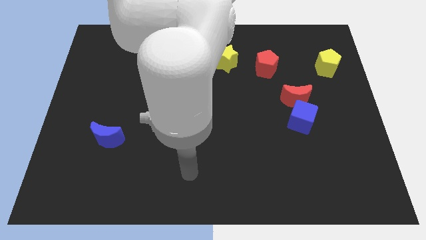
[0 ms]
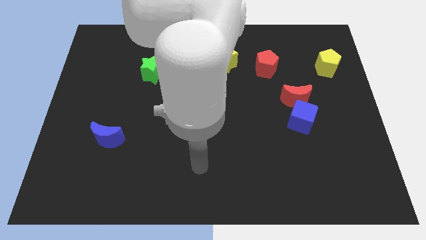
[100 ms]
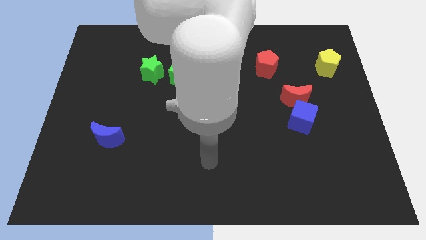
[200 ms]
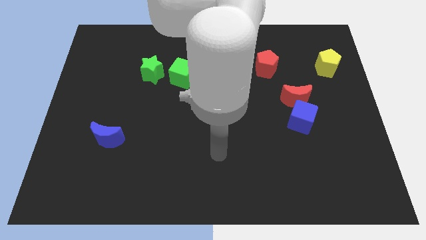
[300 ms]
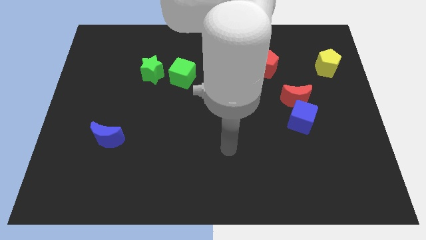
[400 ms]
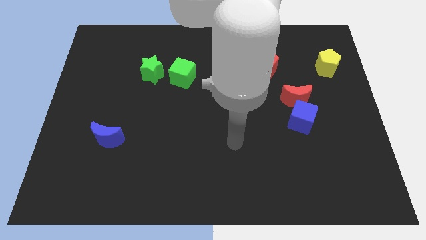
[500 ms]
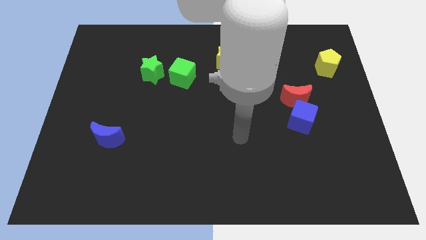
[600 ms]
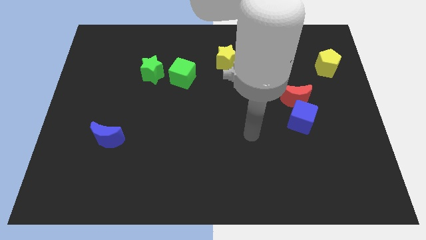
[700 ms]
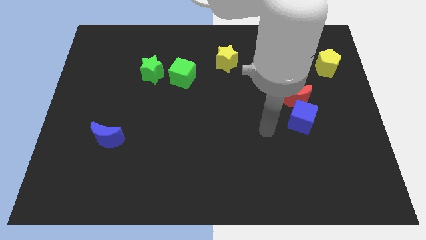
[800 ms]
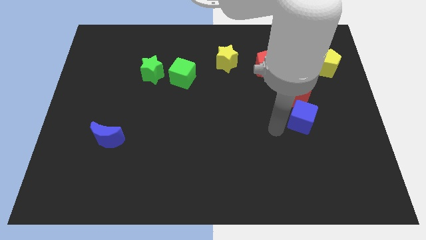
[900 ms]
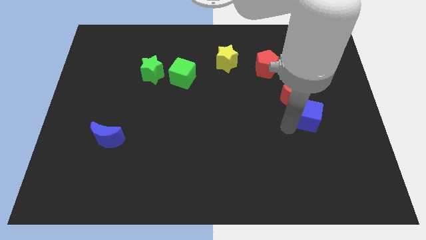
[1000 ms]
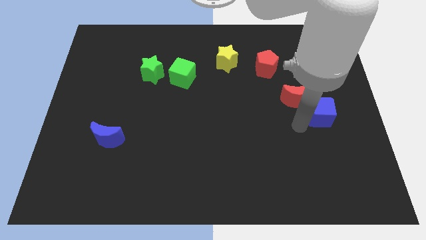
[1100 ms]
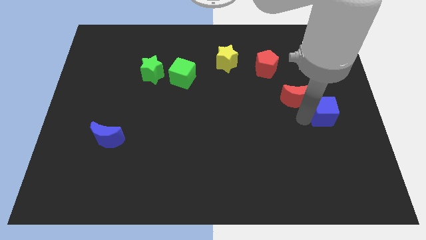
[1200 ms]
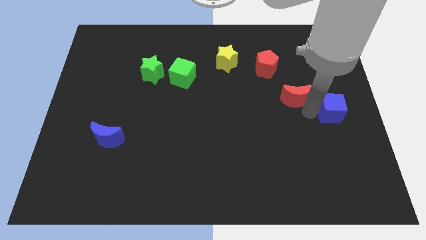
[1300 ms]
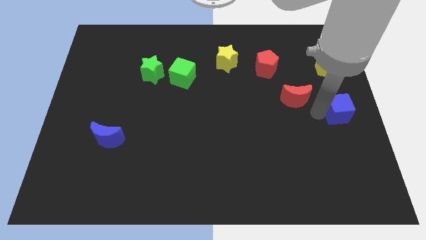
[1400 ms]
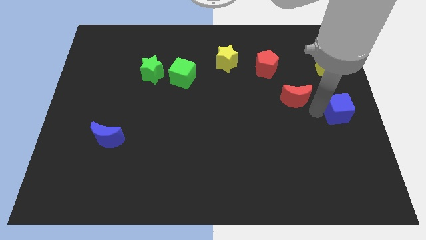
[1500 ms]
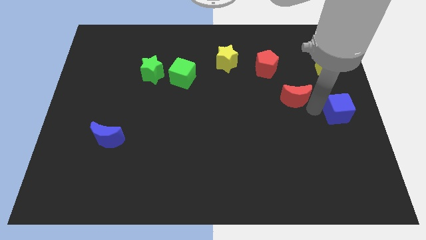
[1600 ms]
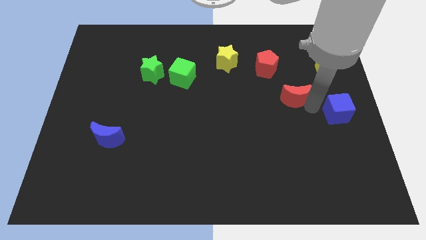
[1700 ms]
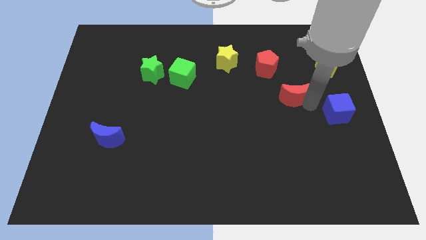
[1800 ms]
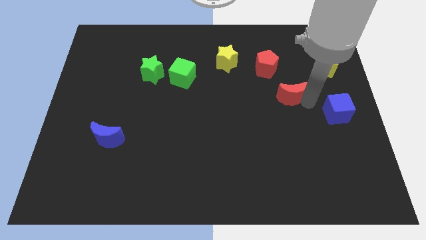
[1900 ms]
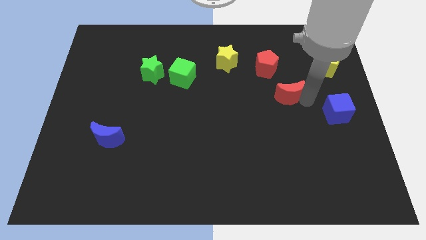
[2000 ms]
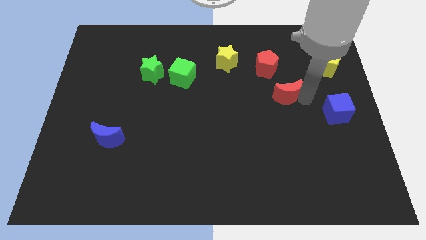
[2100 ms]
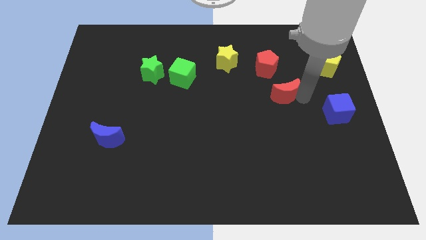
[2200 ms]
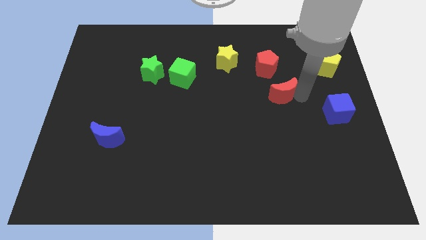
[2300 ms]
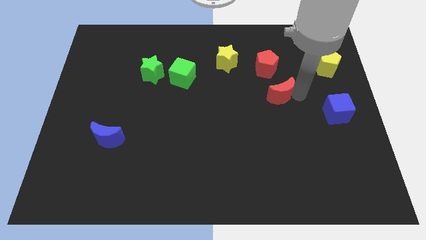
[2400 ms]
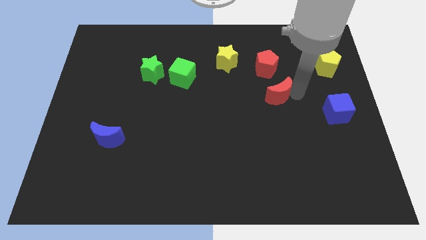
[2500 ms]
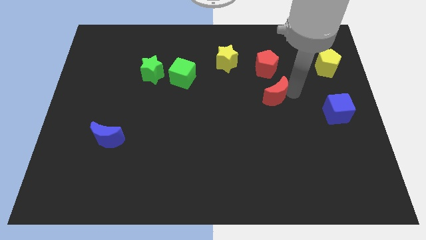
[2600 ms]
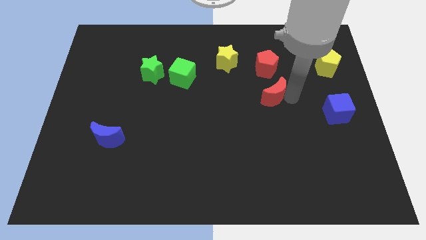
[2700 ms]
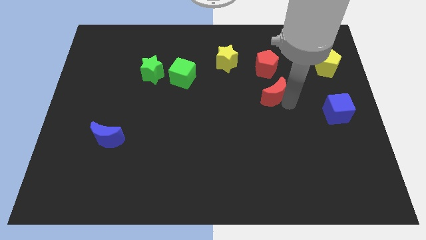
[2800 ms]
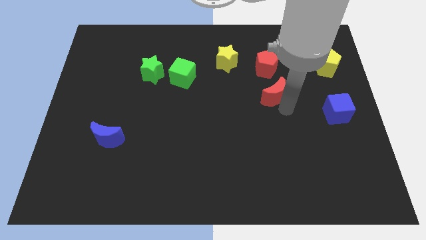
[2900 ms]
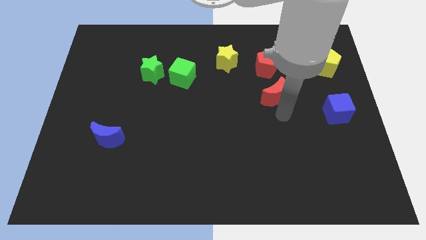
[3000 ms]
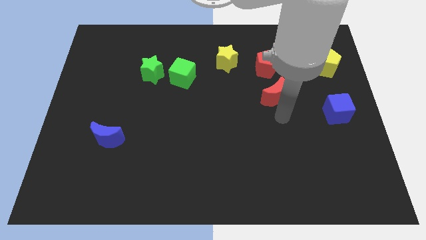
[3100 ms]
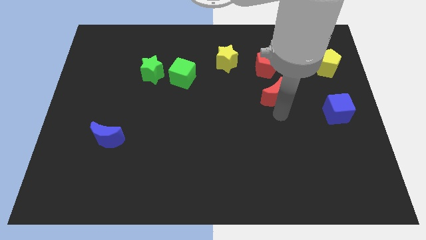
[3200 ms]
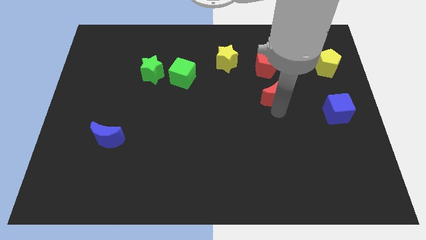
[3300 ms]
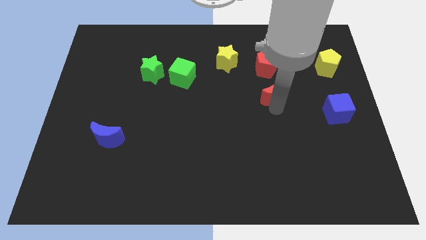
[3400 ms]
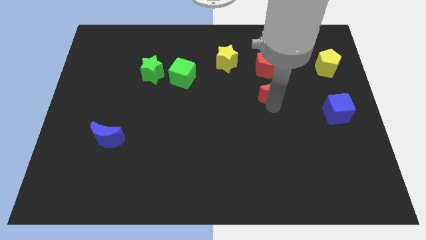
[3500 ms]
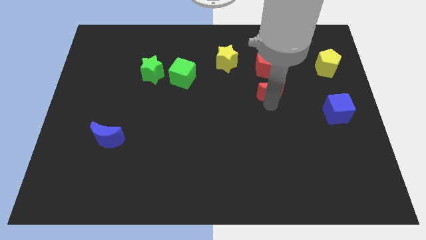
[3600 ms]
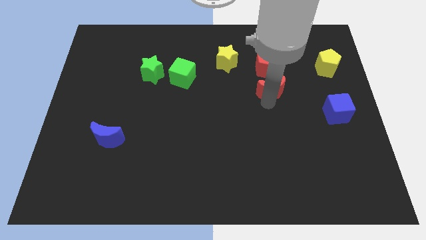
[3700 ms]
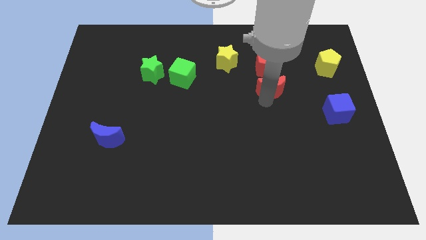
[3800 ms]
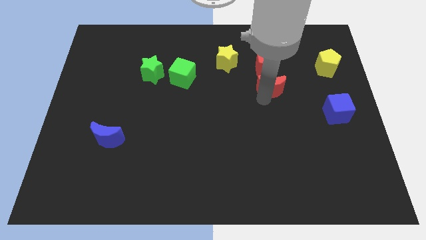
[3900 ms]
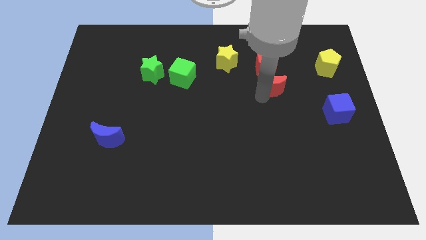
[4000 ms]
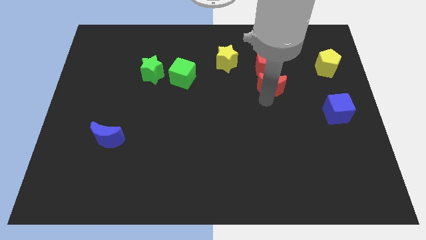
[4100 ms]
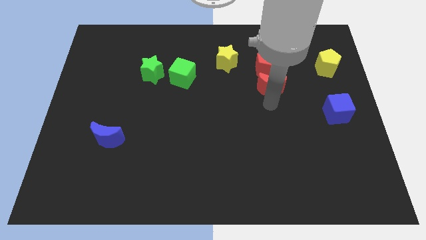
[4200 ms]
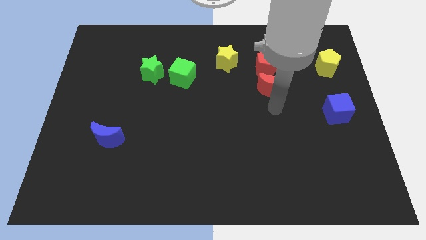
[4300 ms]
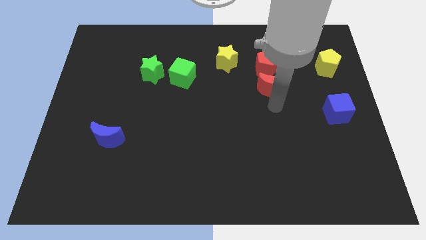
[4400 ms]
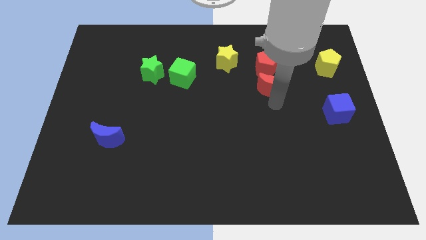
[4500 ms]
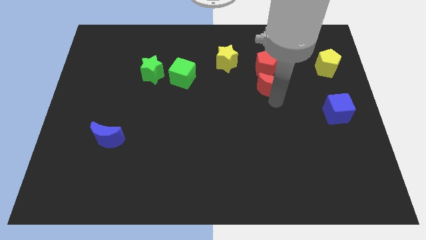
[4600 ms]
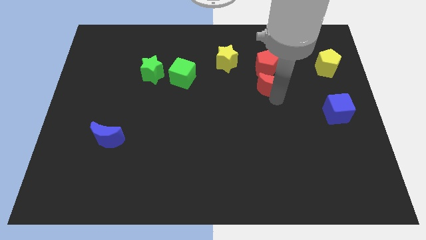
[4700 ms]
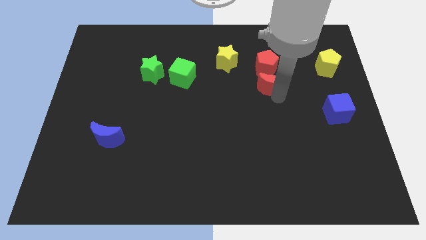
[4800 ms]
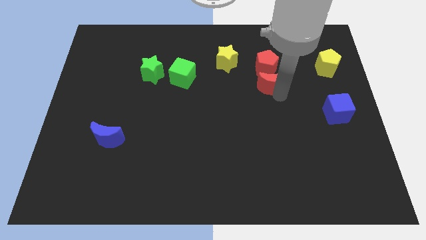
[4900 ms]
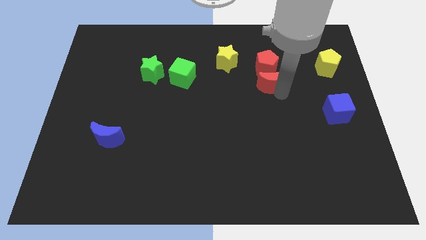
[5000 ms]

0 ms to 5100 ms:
put the red moon to the red pentagon

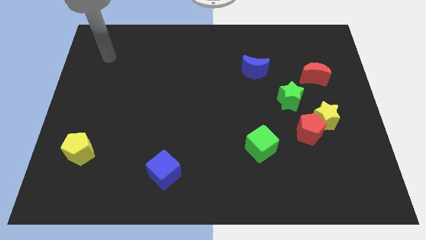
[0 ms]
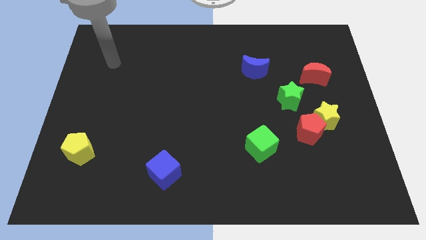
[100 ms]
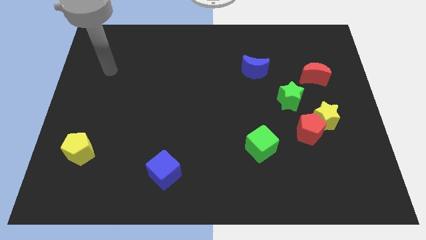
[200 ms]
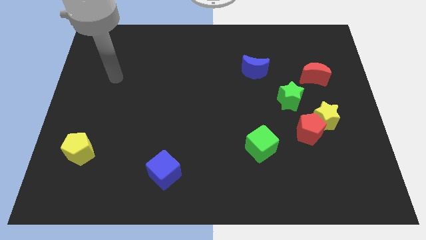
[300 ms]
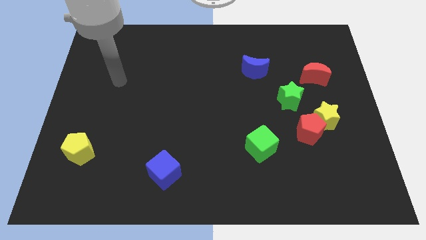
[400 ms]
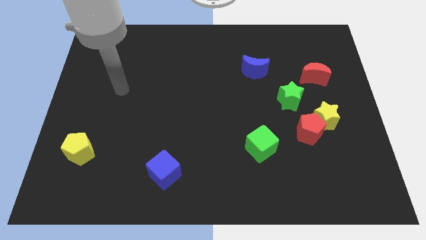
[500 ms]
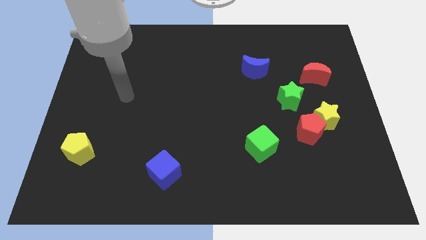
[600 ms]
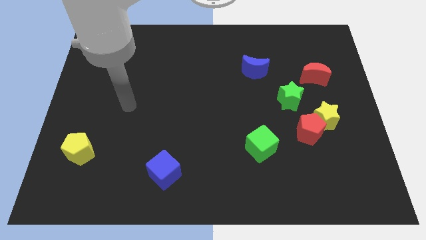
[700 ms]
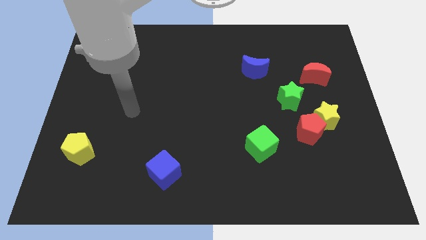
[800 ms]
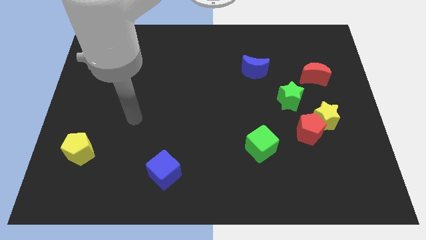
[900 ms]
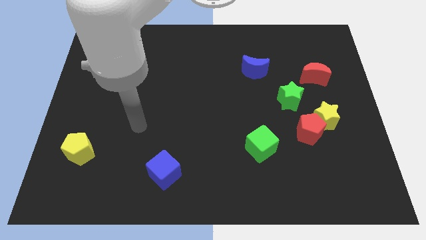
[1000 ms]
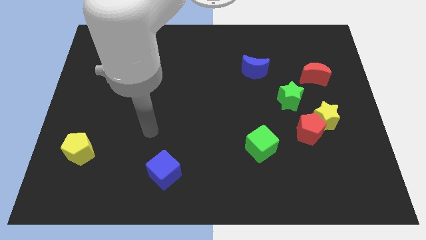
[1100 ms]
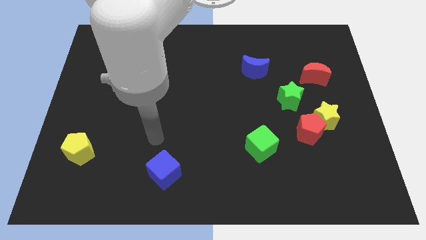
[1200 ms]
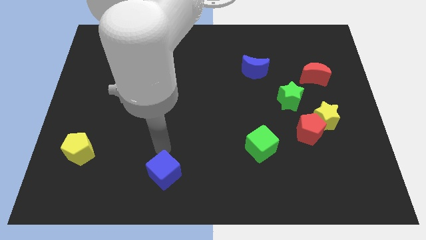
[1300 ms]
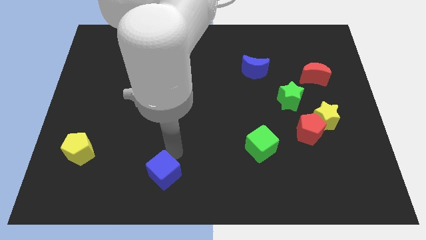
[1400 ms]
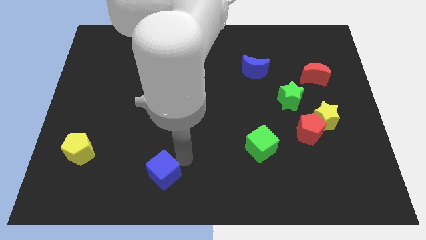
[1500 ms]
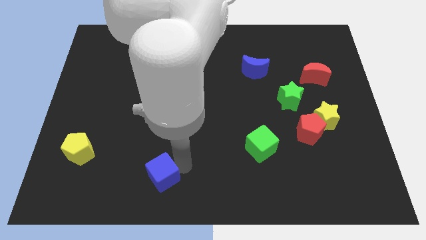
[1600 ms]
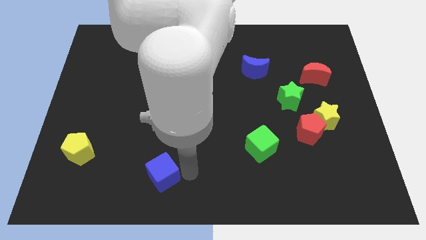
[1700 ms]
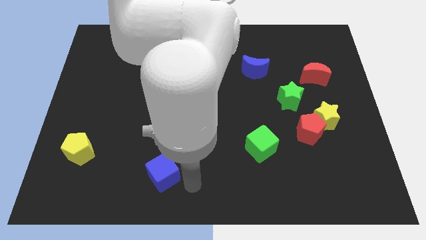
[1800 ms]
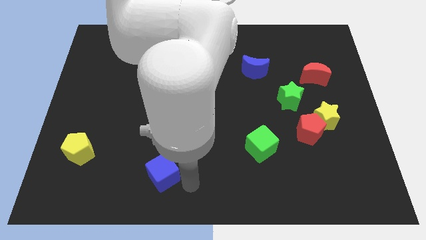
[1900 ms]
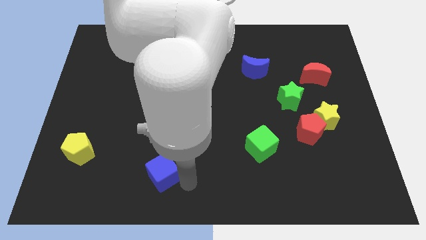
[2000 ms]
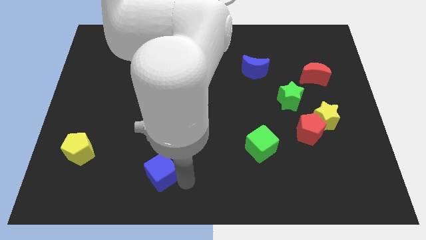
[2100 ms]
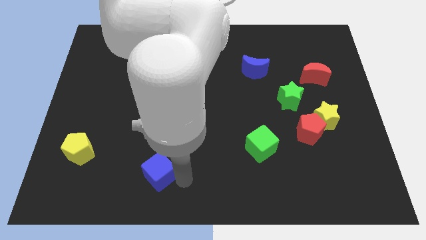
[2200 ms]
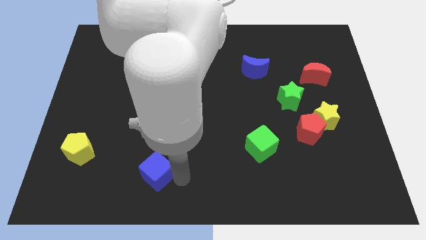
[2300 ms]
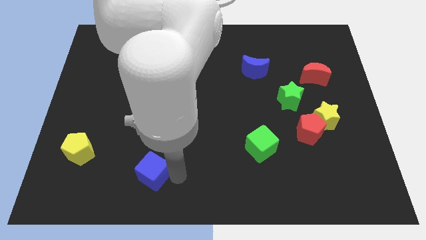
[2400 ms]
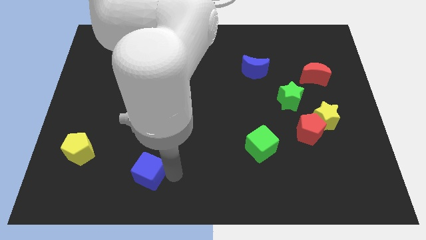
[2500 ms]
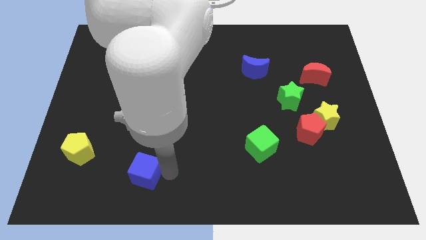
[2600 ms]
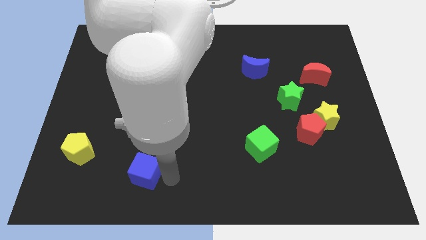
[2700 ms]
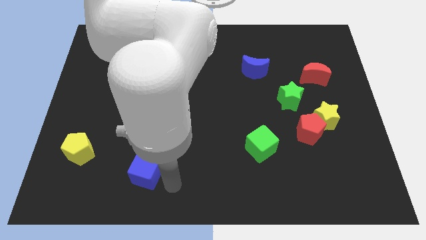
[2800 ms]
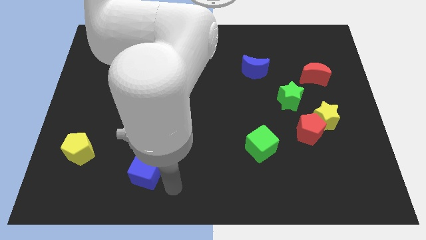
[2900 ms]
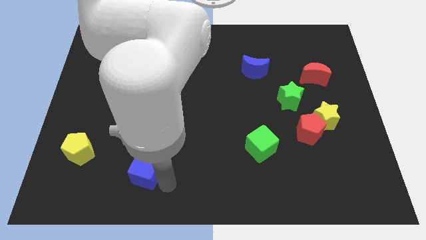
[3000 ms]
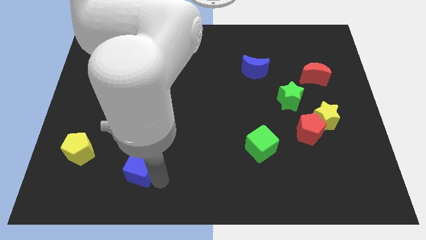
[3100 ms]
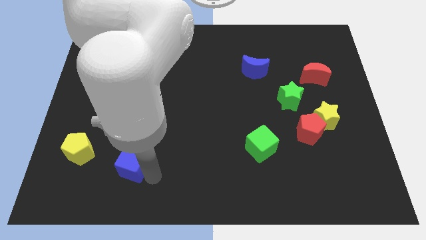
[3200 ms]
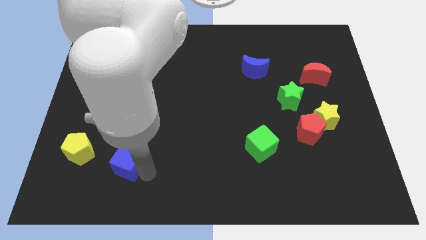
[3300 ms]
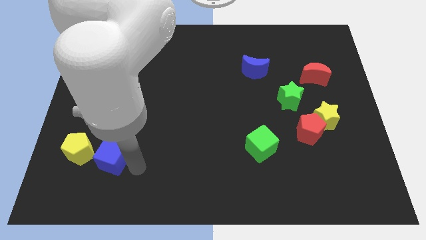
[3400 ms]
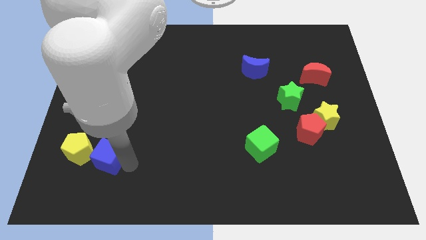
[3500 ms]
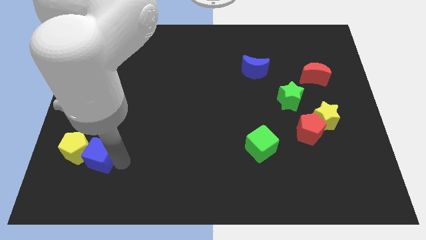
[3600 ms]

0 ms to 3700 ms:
push the blue cube towards the yellow pentagon
